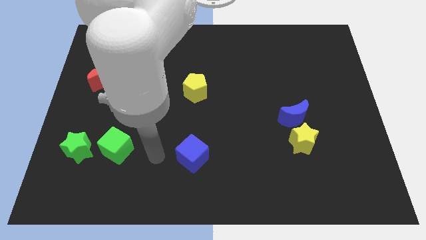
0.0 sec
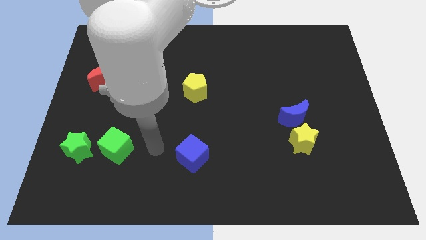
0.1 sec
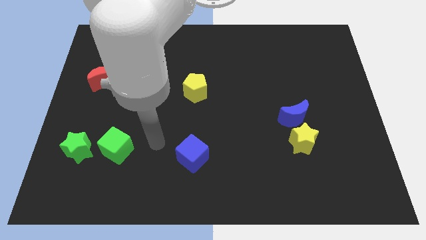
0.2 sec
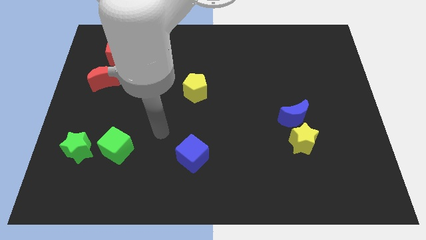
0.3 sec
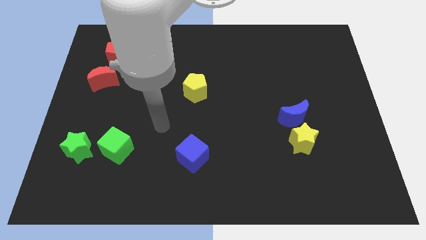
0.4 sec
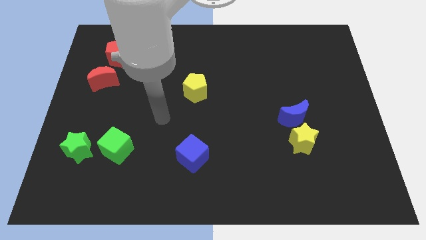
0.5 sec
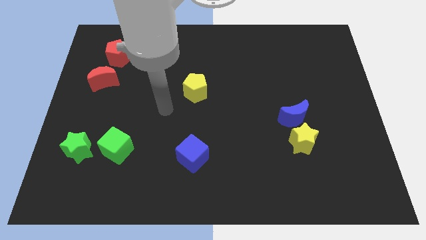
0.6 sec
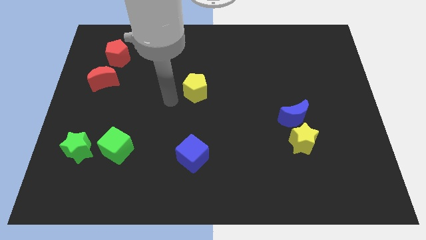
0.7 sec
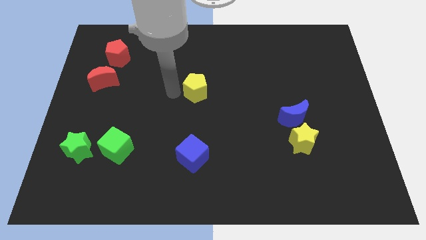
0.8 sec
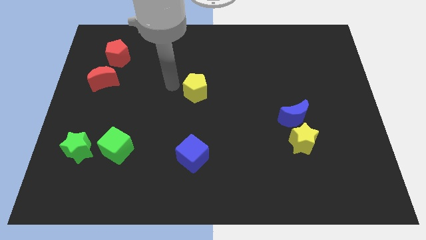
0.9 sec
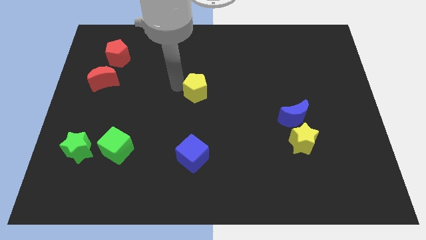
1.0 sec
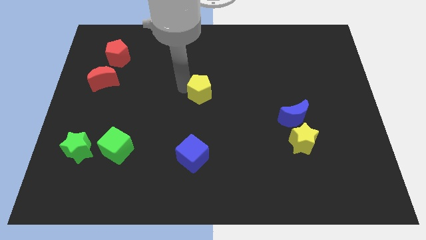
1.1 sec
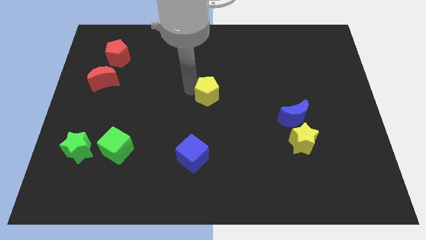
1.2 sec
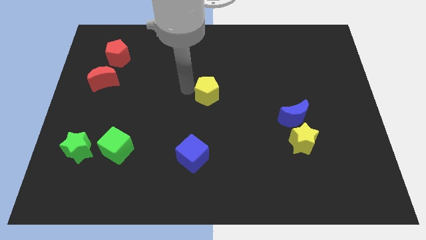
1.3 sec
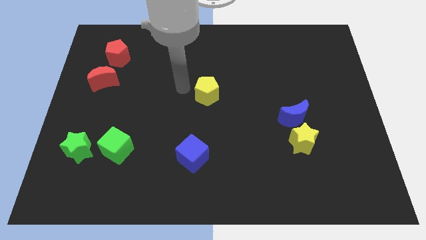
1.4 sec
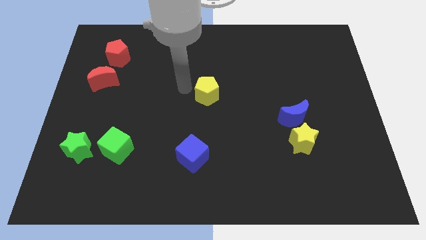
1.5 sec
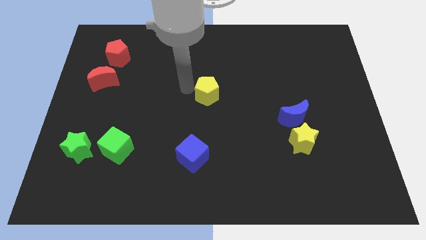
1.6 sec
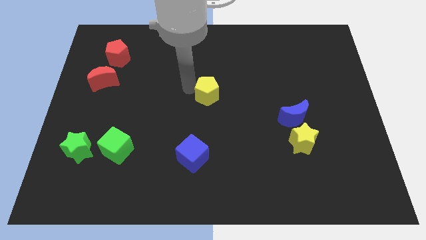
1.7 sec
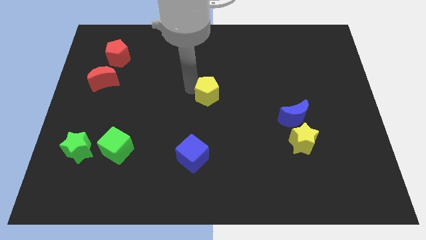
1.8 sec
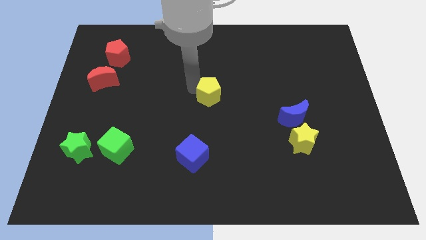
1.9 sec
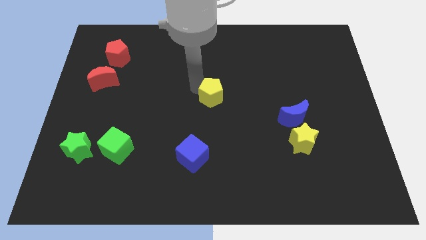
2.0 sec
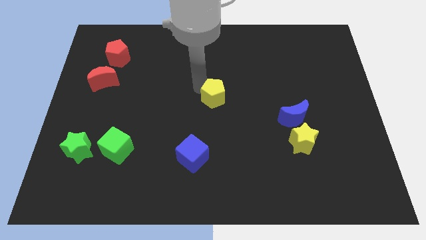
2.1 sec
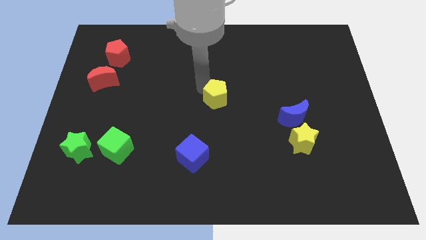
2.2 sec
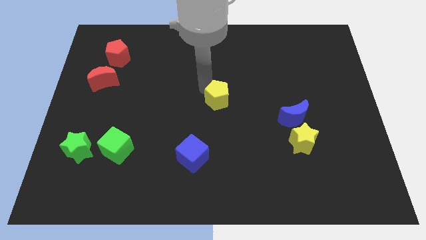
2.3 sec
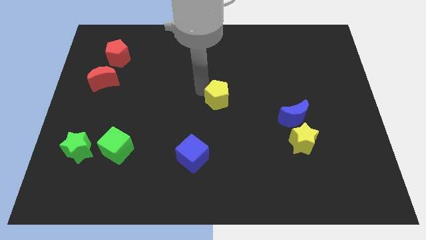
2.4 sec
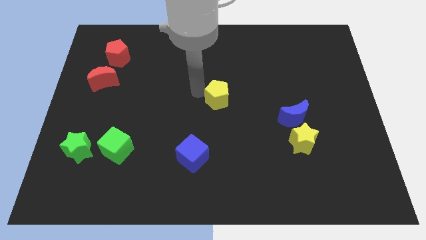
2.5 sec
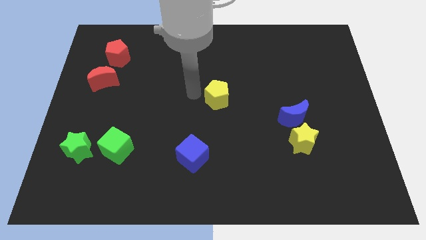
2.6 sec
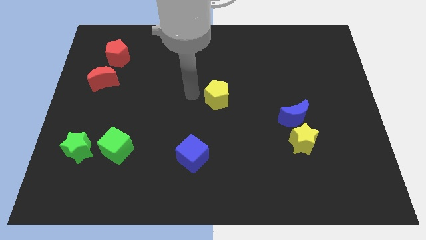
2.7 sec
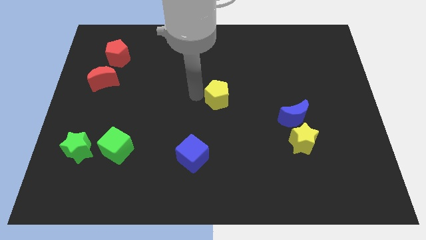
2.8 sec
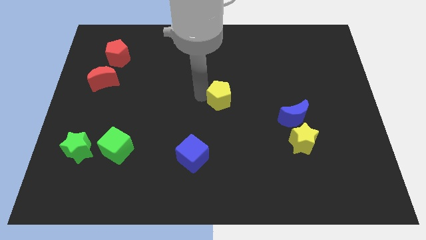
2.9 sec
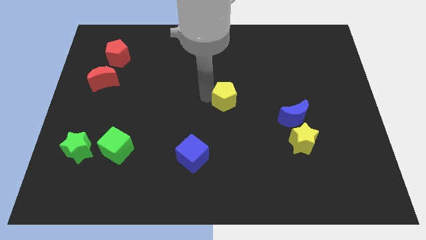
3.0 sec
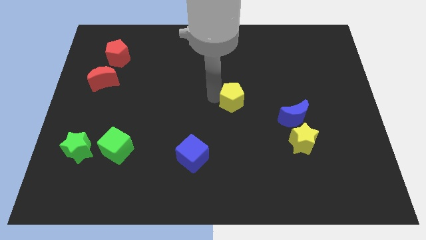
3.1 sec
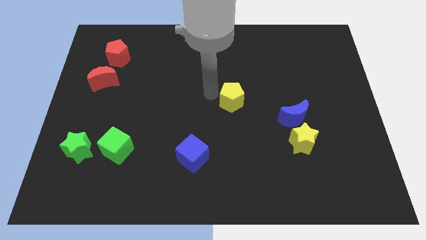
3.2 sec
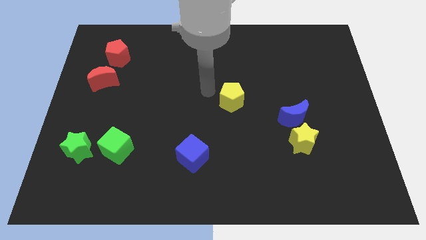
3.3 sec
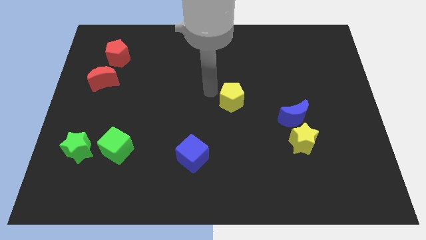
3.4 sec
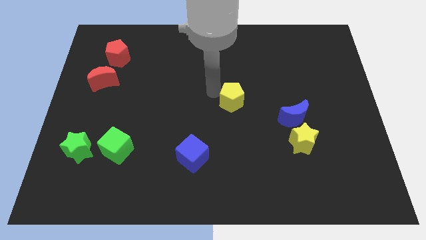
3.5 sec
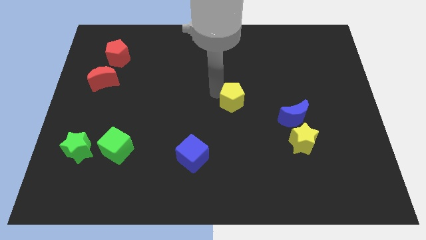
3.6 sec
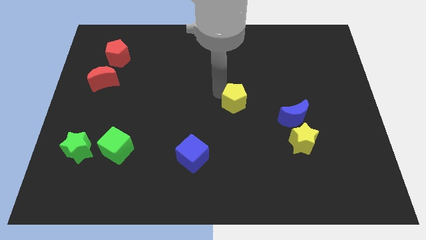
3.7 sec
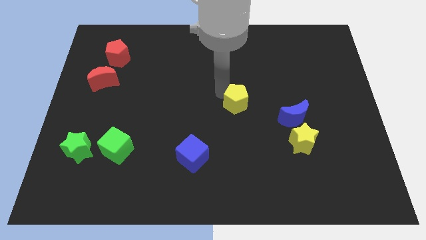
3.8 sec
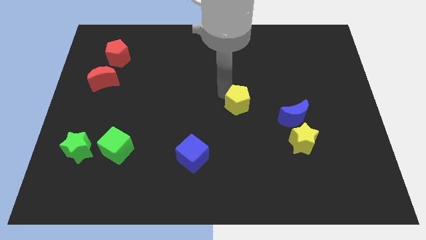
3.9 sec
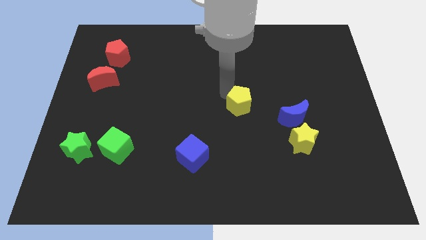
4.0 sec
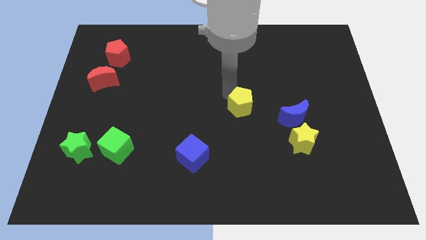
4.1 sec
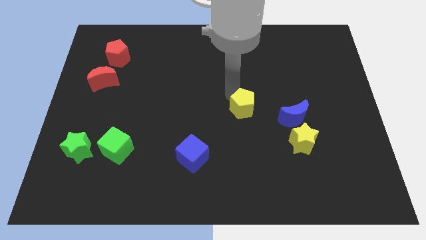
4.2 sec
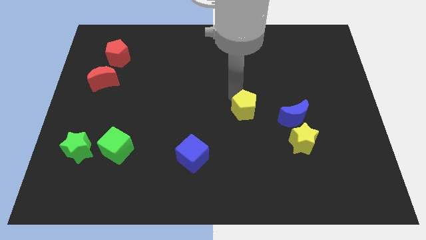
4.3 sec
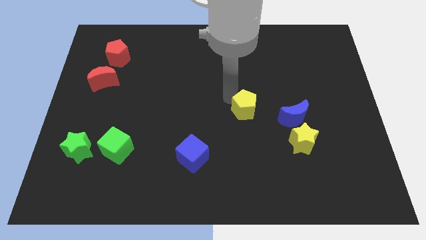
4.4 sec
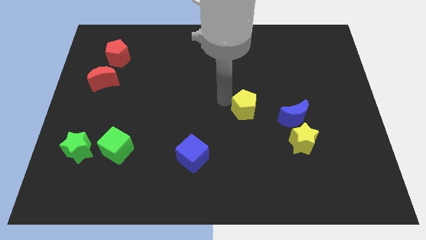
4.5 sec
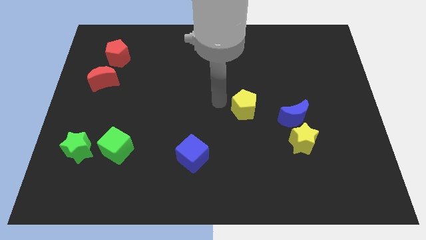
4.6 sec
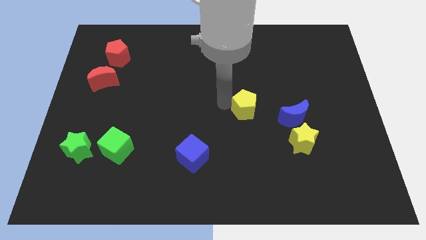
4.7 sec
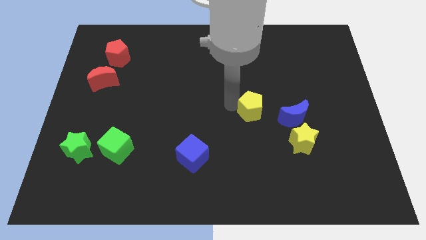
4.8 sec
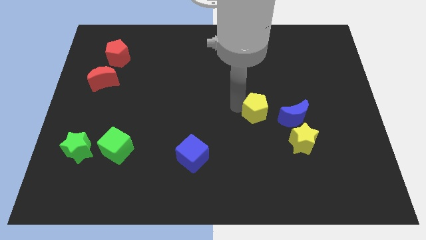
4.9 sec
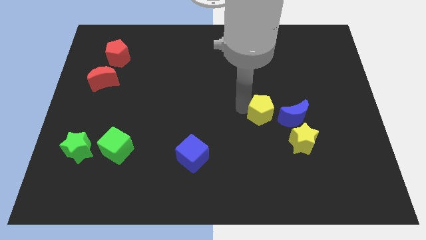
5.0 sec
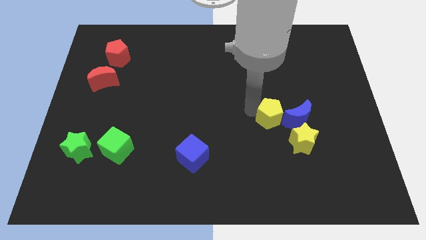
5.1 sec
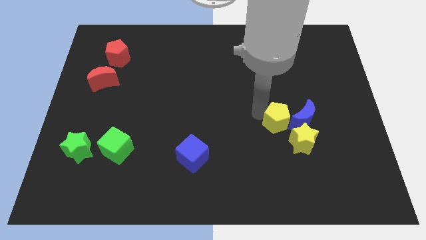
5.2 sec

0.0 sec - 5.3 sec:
push the yellow pentagon towards the blue moon

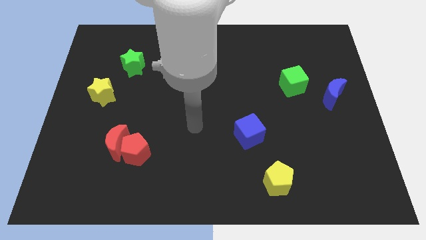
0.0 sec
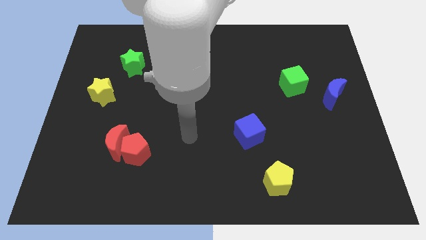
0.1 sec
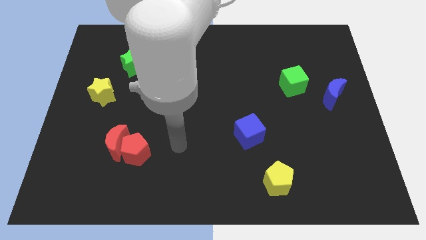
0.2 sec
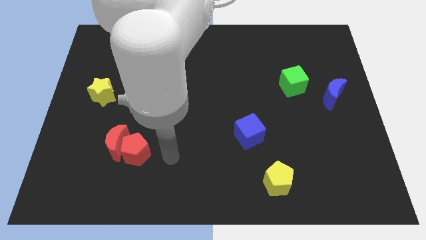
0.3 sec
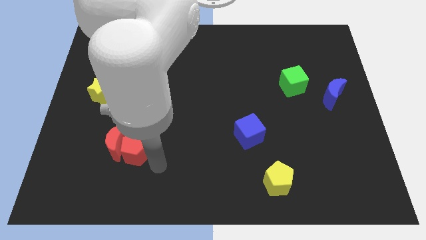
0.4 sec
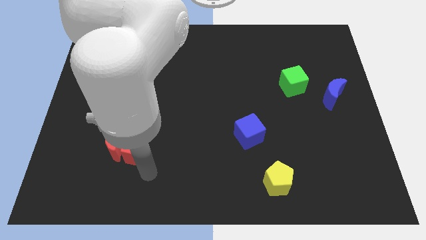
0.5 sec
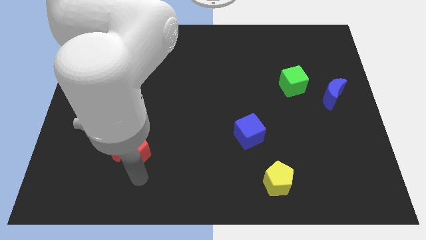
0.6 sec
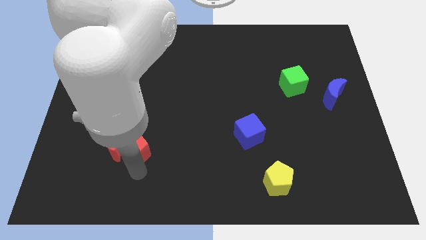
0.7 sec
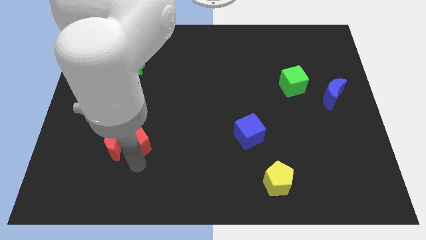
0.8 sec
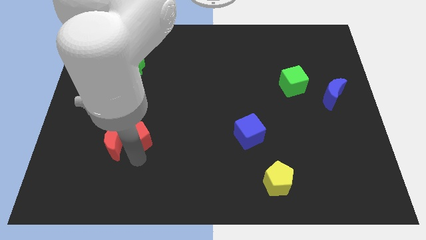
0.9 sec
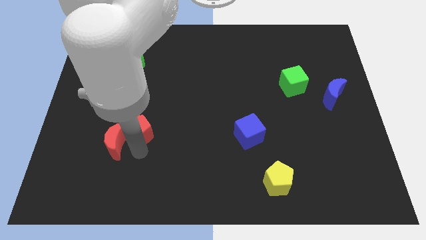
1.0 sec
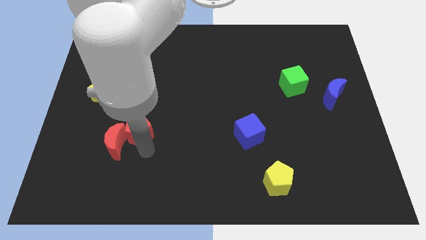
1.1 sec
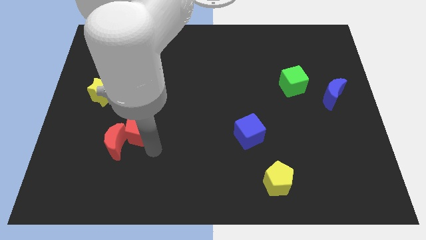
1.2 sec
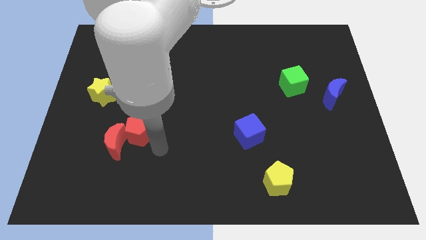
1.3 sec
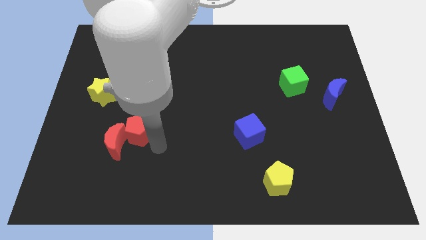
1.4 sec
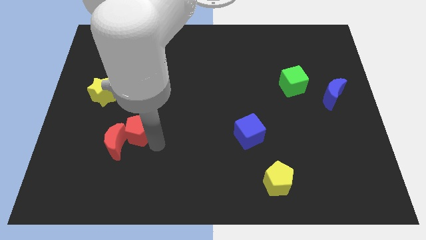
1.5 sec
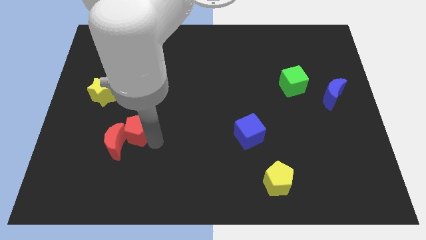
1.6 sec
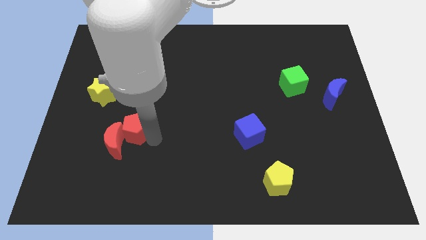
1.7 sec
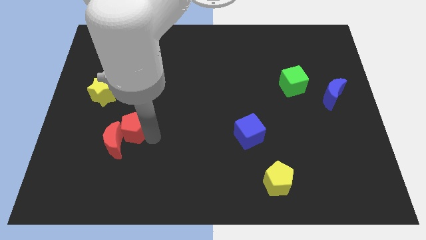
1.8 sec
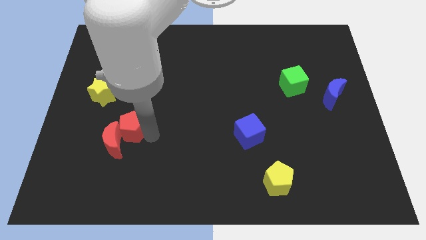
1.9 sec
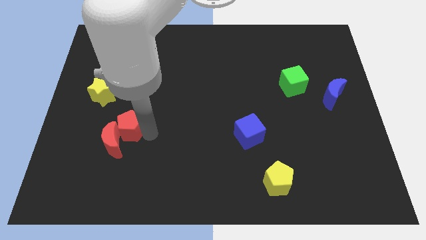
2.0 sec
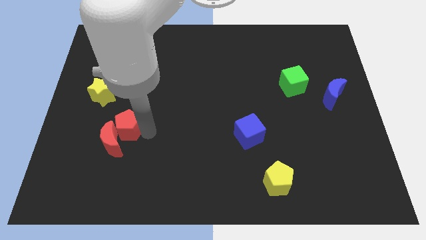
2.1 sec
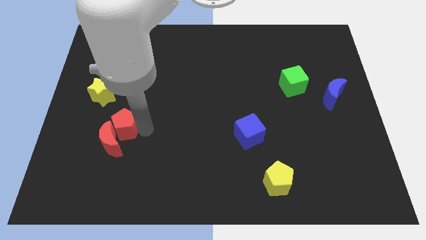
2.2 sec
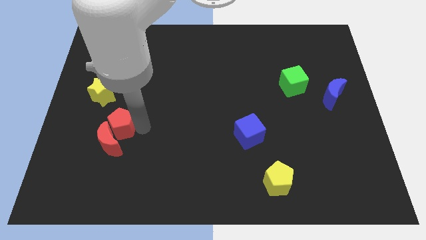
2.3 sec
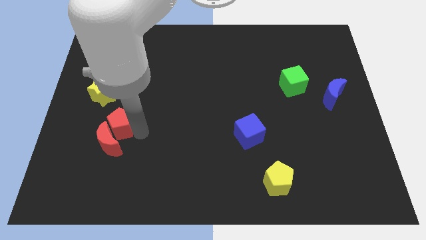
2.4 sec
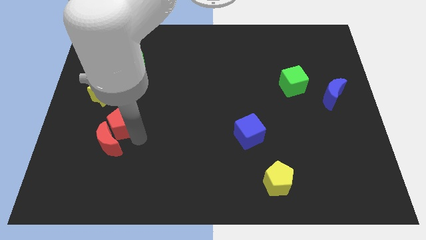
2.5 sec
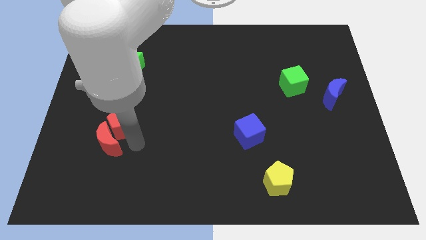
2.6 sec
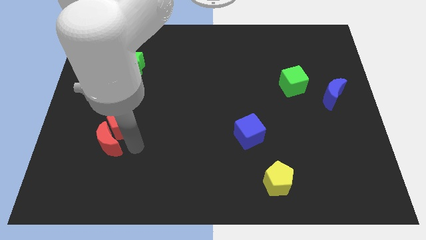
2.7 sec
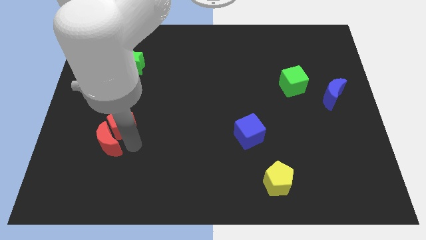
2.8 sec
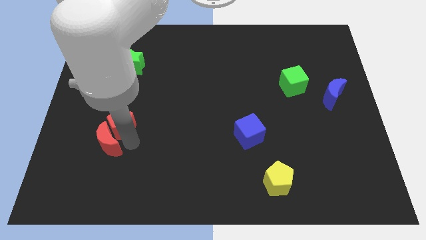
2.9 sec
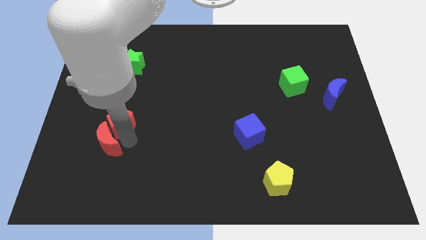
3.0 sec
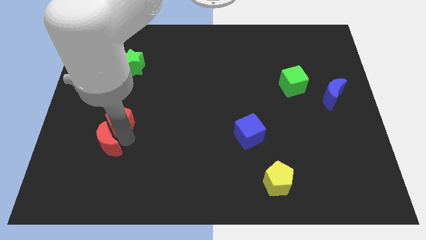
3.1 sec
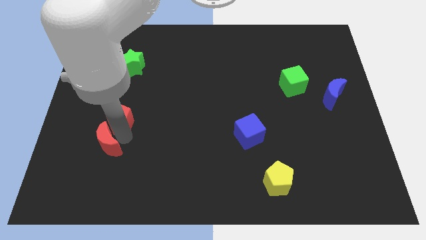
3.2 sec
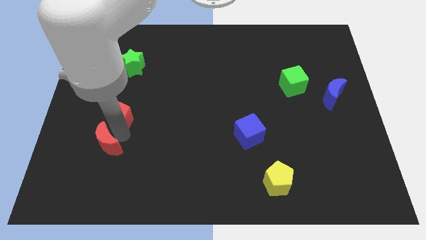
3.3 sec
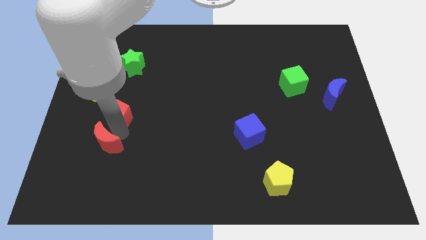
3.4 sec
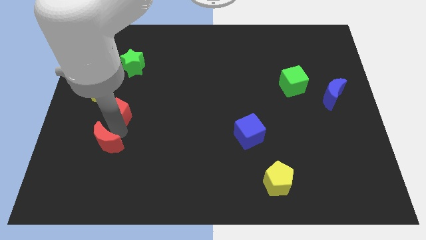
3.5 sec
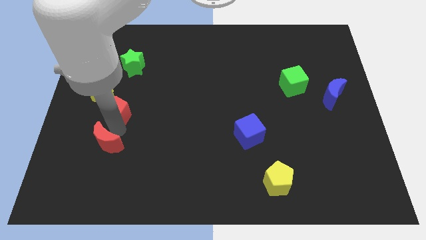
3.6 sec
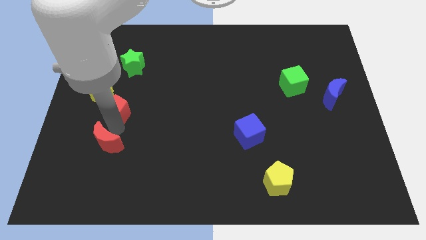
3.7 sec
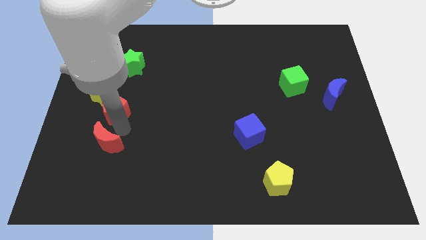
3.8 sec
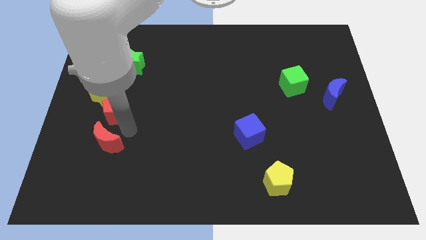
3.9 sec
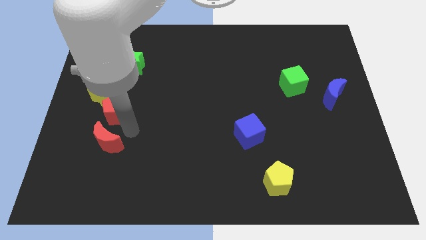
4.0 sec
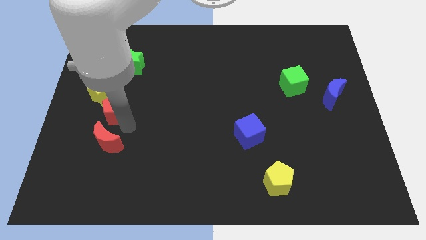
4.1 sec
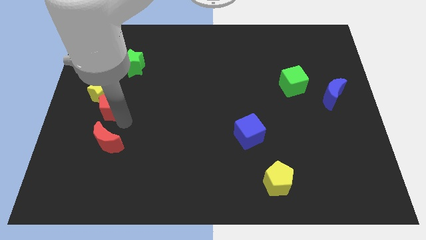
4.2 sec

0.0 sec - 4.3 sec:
slide the red pentagon towards the yellow star
